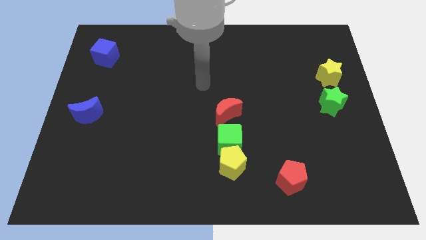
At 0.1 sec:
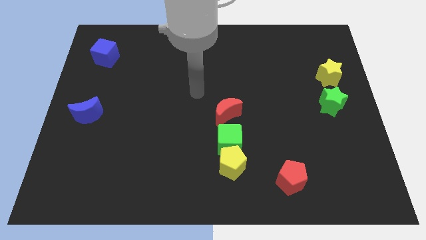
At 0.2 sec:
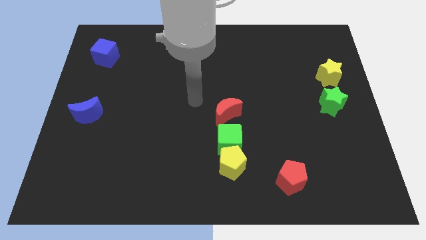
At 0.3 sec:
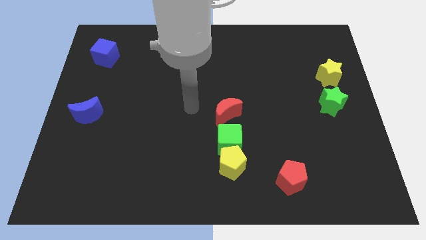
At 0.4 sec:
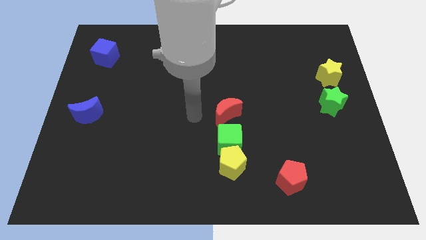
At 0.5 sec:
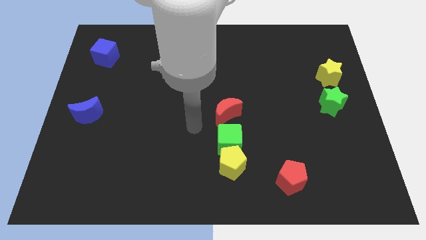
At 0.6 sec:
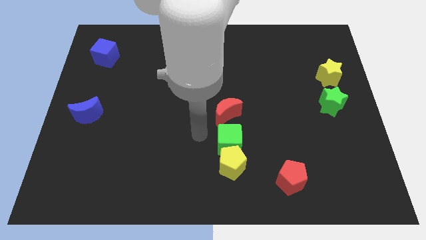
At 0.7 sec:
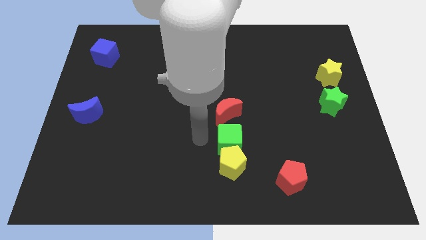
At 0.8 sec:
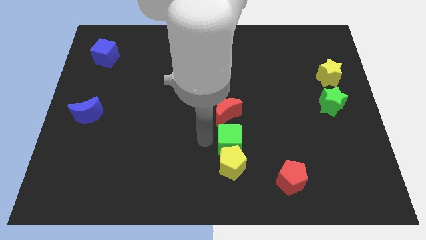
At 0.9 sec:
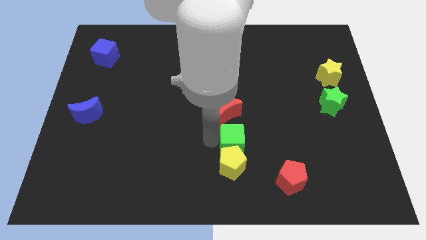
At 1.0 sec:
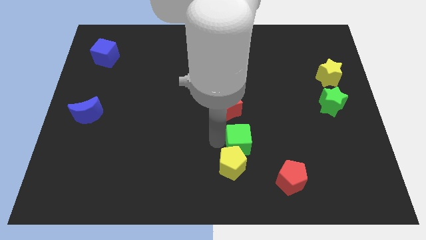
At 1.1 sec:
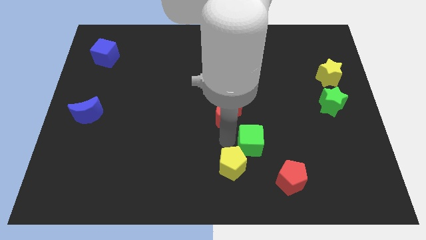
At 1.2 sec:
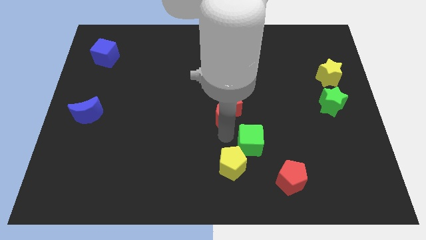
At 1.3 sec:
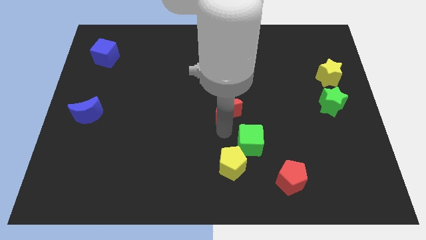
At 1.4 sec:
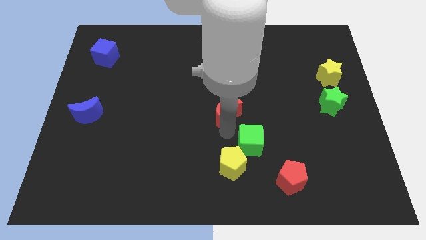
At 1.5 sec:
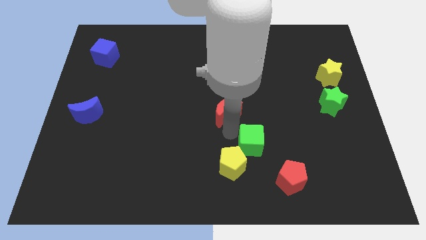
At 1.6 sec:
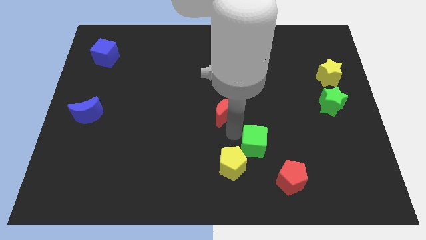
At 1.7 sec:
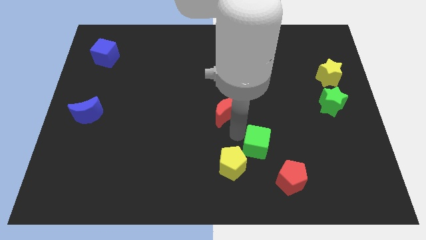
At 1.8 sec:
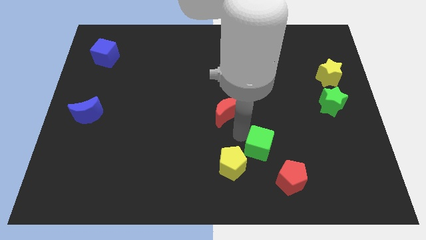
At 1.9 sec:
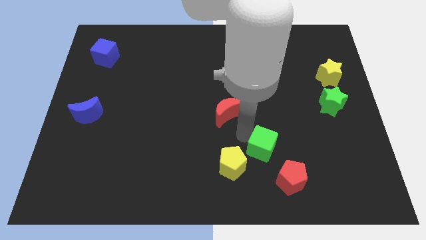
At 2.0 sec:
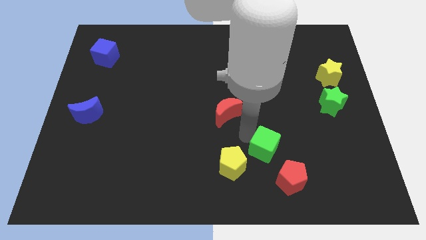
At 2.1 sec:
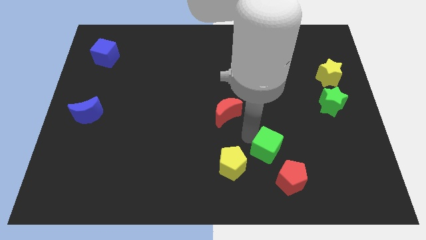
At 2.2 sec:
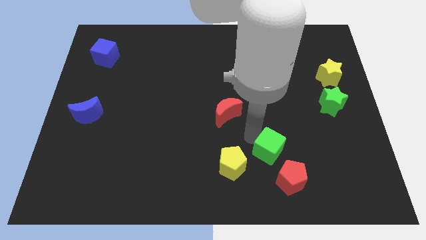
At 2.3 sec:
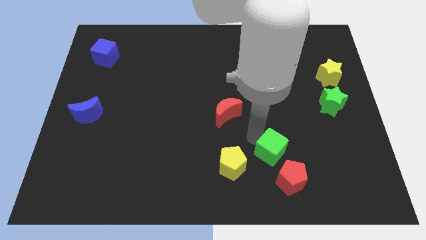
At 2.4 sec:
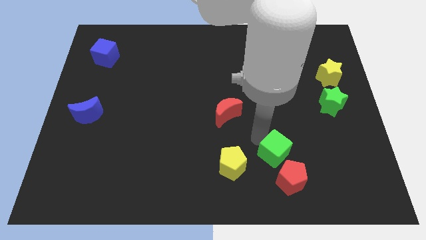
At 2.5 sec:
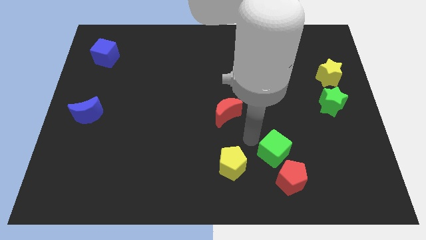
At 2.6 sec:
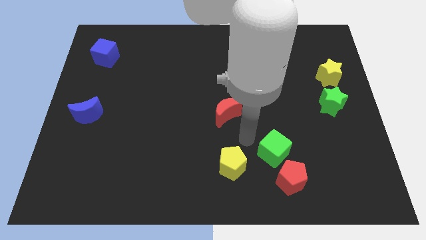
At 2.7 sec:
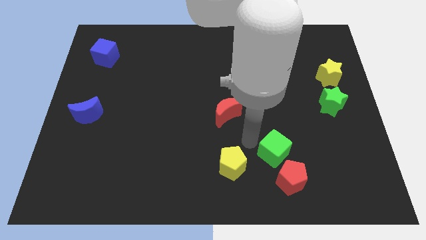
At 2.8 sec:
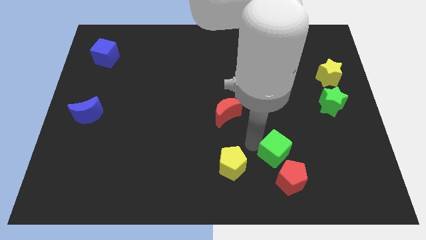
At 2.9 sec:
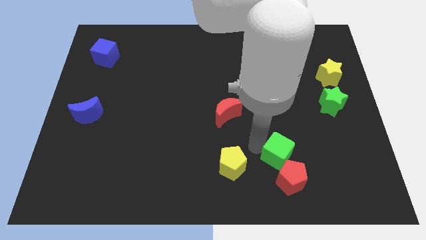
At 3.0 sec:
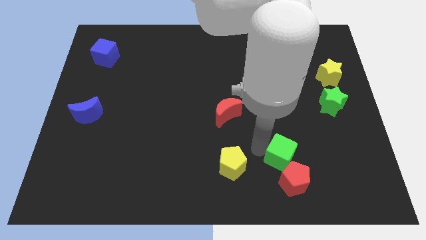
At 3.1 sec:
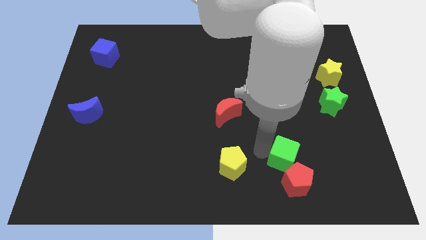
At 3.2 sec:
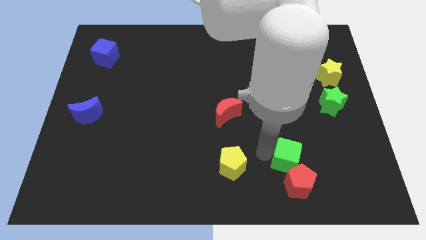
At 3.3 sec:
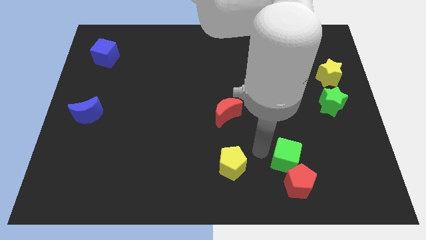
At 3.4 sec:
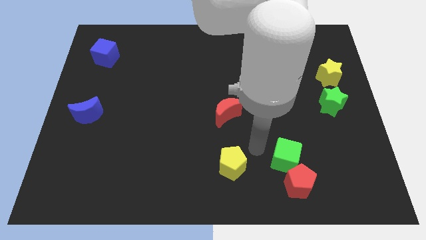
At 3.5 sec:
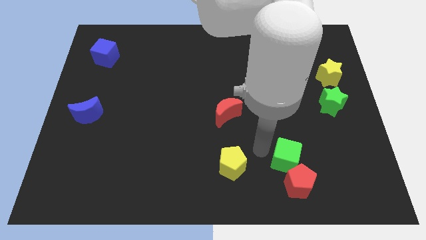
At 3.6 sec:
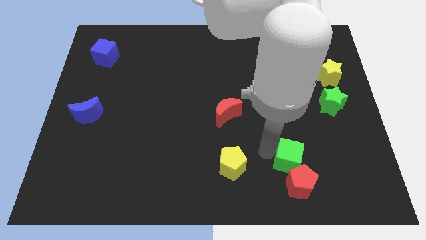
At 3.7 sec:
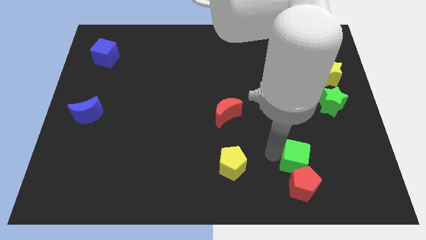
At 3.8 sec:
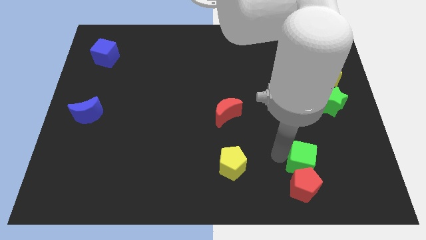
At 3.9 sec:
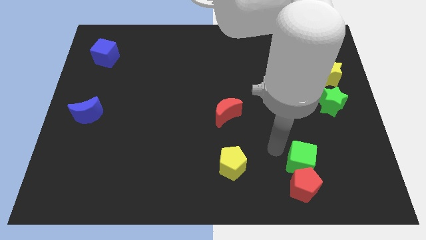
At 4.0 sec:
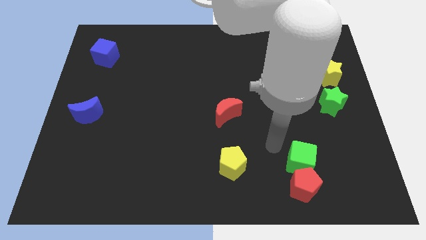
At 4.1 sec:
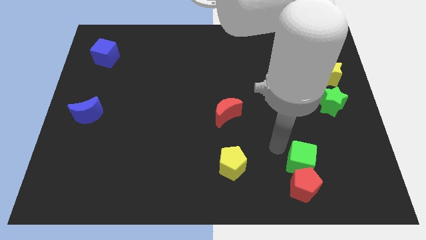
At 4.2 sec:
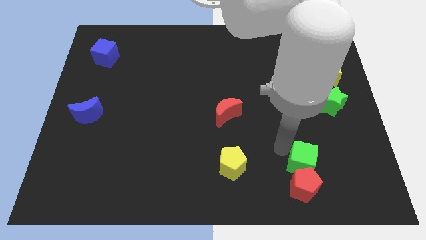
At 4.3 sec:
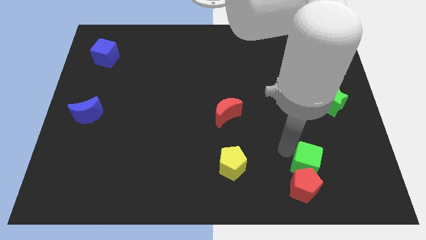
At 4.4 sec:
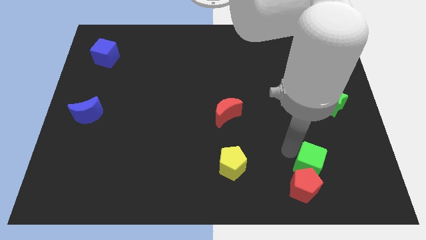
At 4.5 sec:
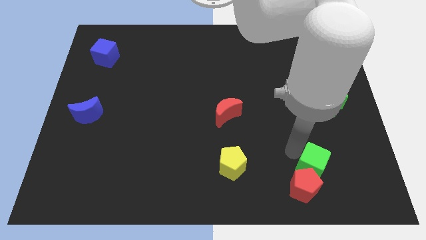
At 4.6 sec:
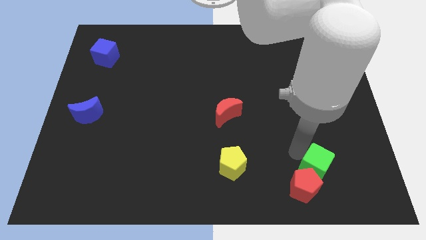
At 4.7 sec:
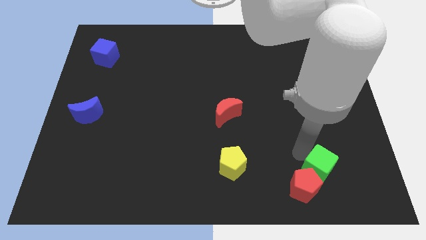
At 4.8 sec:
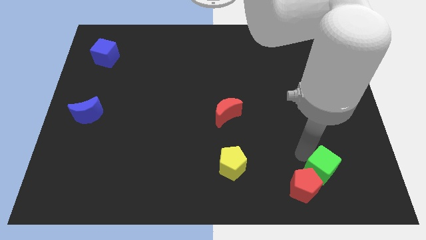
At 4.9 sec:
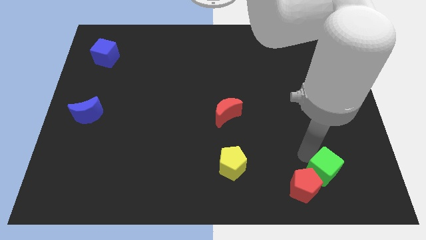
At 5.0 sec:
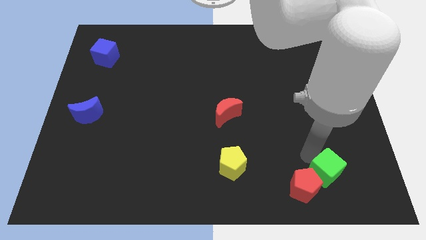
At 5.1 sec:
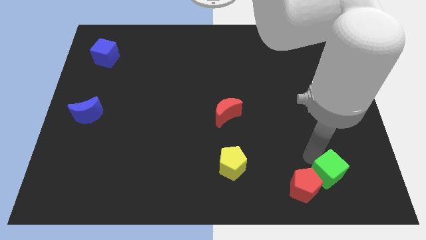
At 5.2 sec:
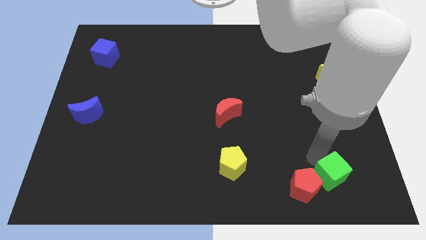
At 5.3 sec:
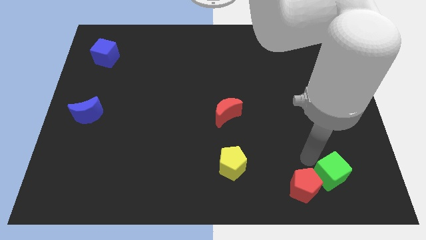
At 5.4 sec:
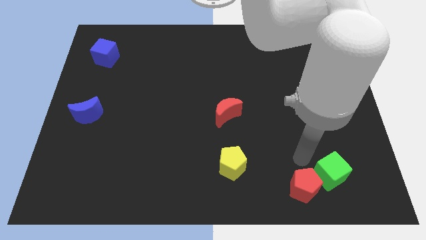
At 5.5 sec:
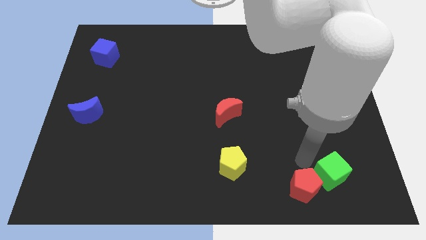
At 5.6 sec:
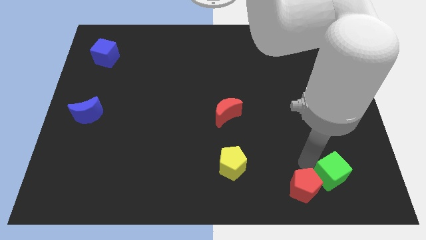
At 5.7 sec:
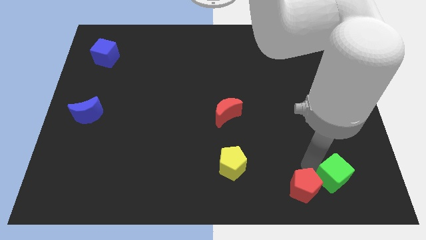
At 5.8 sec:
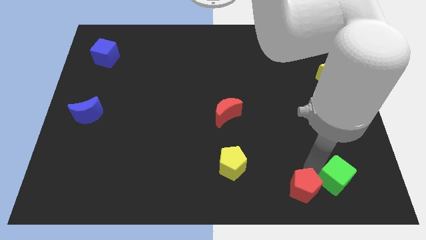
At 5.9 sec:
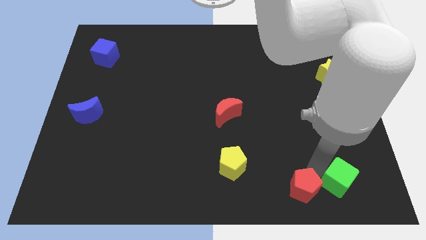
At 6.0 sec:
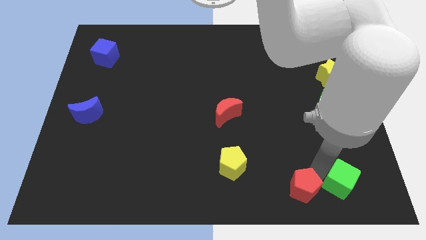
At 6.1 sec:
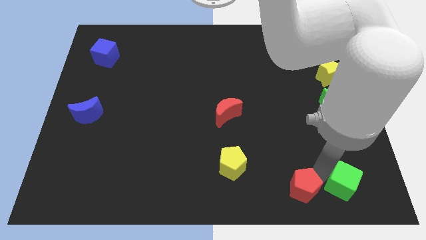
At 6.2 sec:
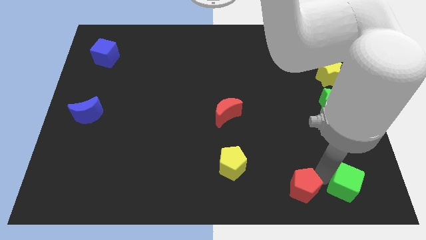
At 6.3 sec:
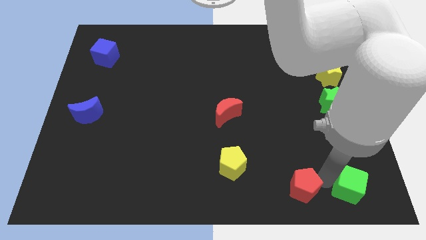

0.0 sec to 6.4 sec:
push the green cube to the bottom right corner
